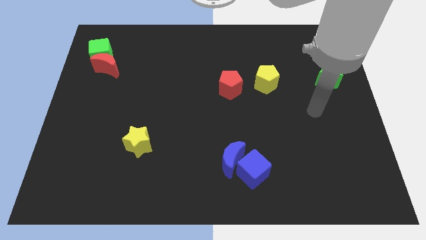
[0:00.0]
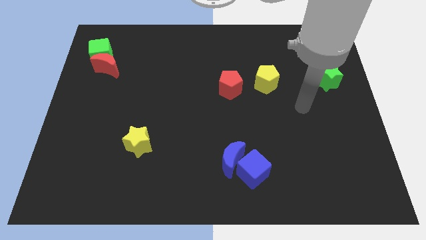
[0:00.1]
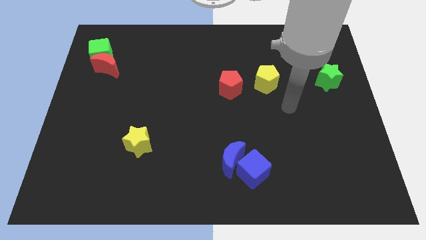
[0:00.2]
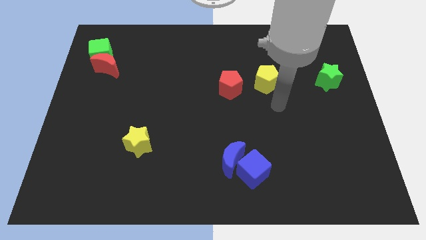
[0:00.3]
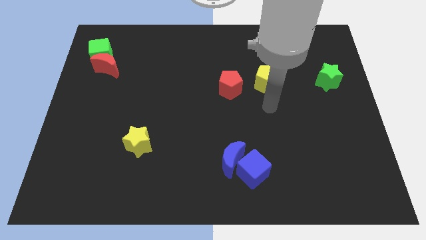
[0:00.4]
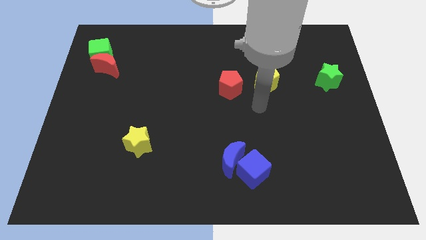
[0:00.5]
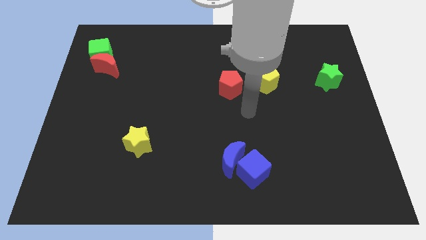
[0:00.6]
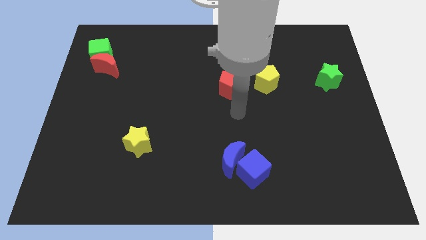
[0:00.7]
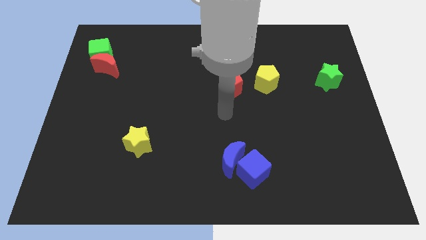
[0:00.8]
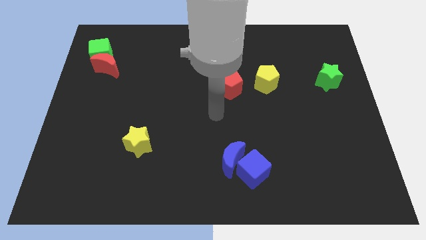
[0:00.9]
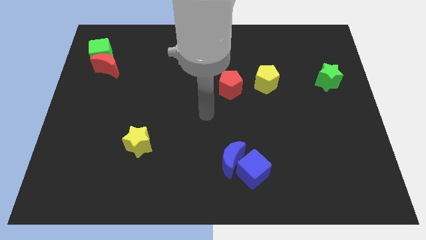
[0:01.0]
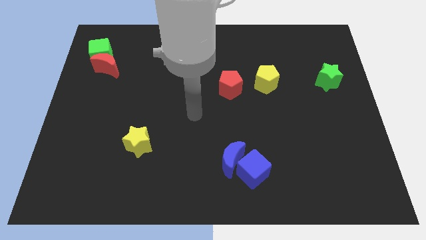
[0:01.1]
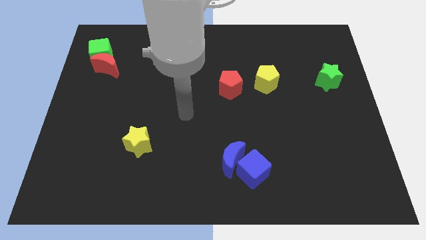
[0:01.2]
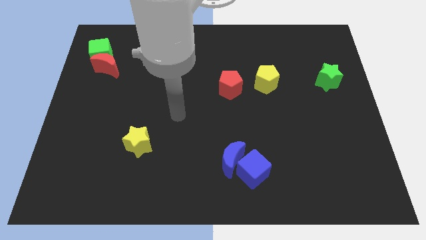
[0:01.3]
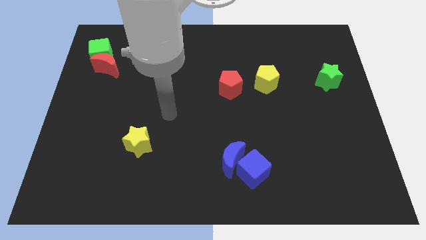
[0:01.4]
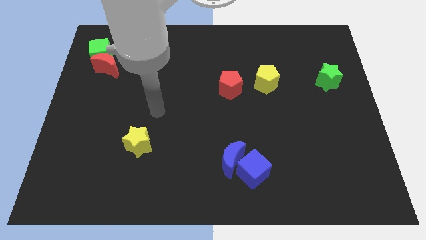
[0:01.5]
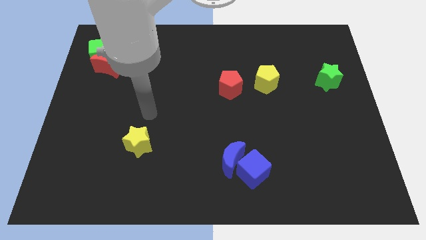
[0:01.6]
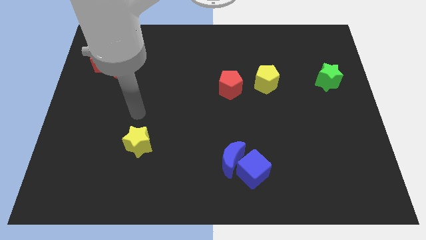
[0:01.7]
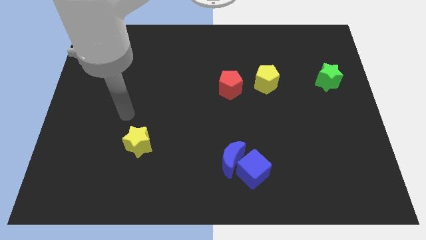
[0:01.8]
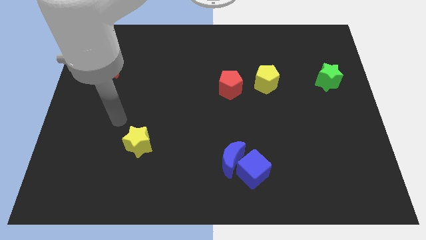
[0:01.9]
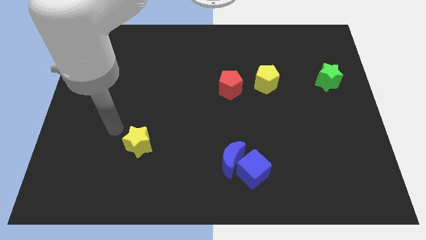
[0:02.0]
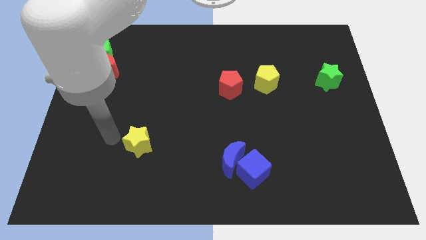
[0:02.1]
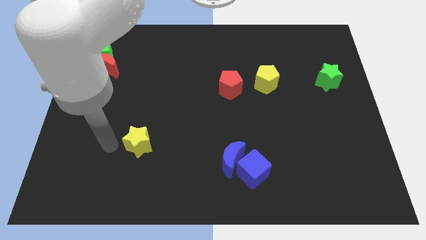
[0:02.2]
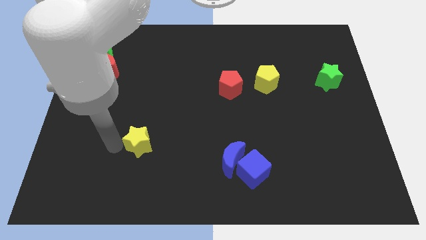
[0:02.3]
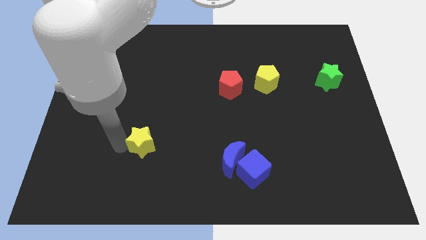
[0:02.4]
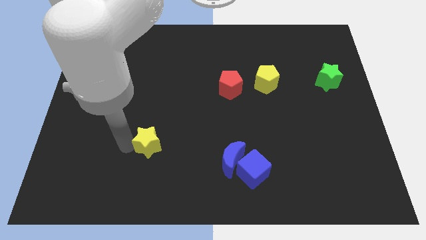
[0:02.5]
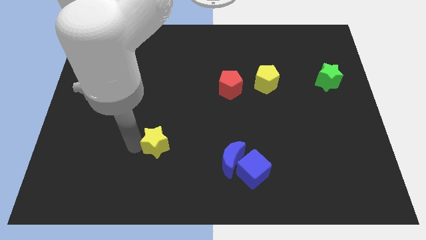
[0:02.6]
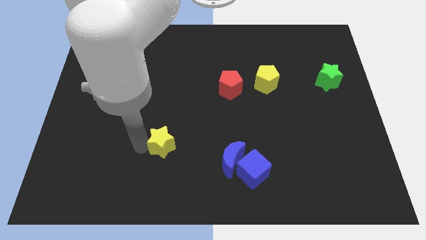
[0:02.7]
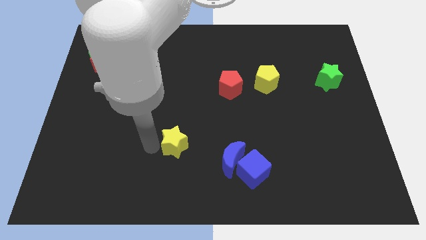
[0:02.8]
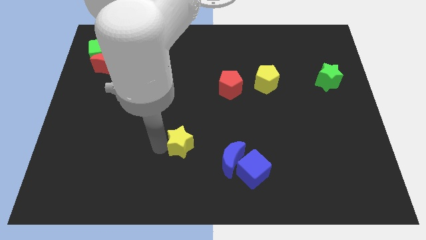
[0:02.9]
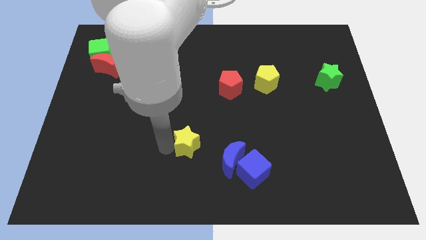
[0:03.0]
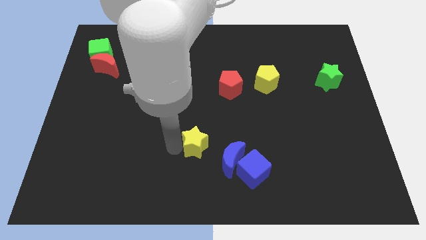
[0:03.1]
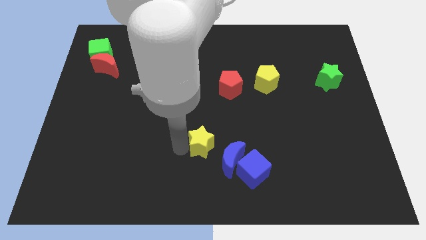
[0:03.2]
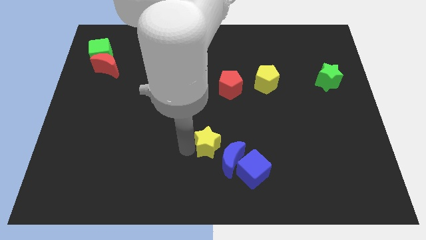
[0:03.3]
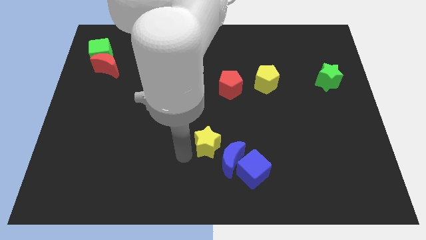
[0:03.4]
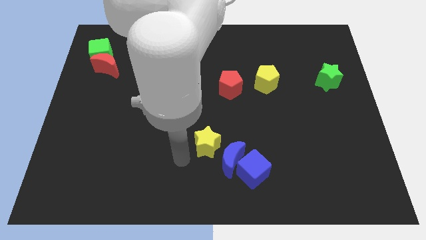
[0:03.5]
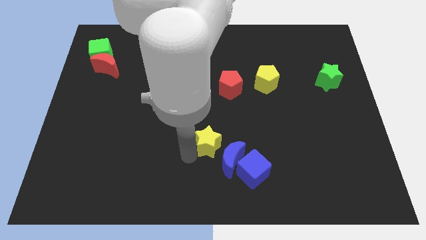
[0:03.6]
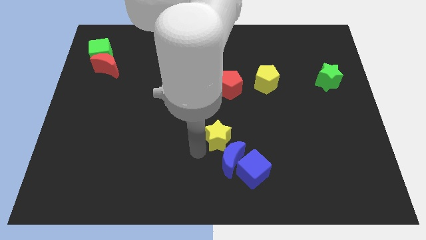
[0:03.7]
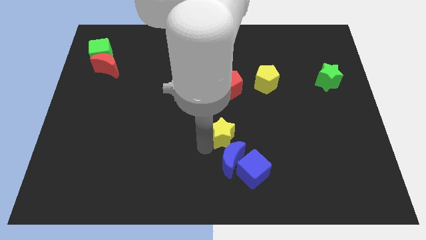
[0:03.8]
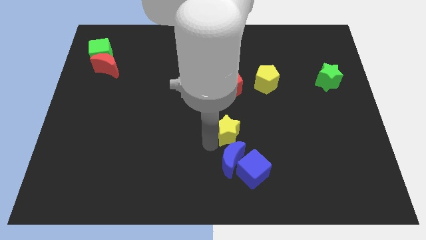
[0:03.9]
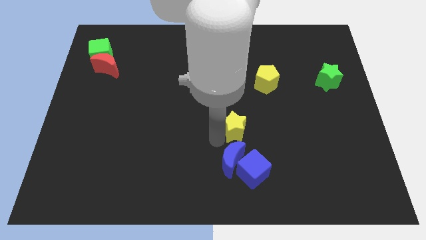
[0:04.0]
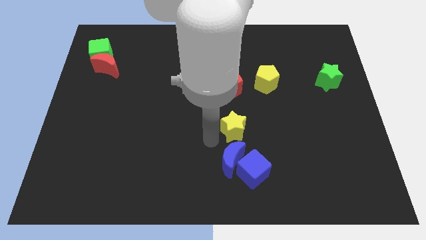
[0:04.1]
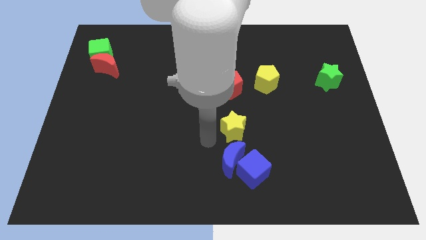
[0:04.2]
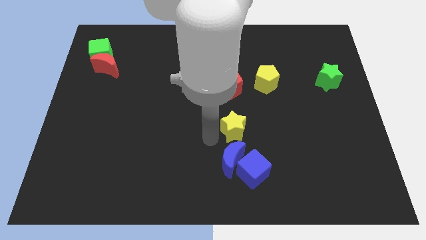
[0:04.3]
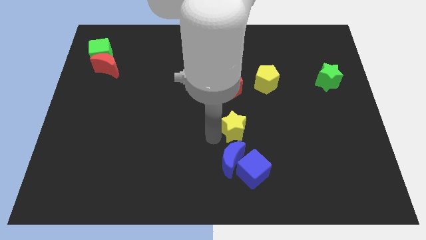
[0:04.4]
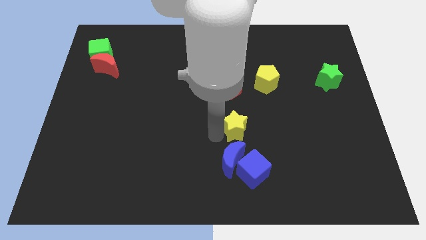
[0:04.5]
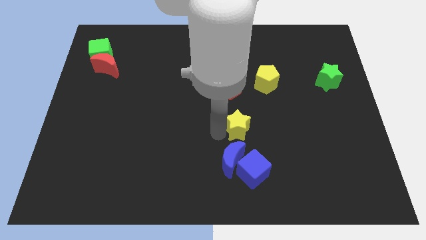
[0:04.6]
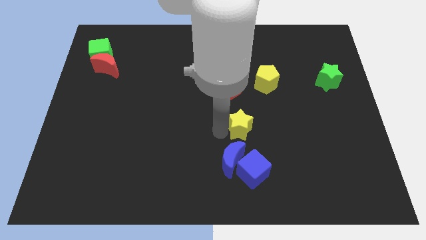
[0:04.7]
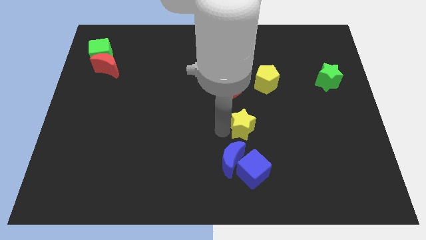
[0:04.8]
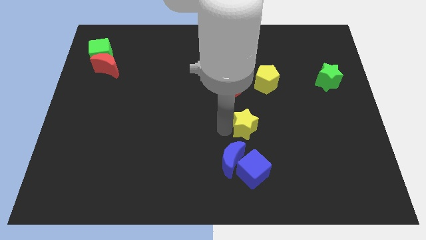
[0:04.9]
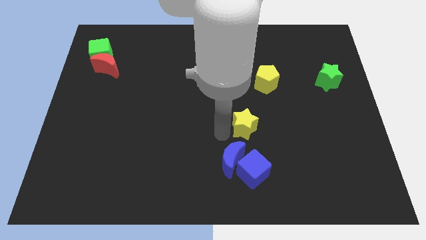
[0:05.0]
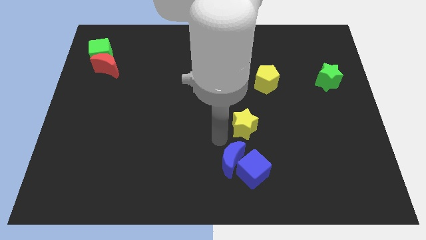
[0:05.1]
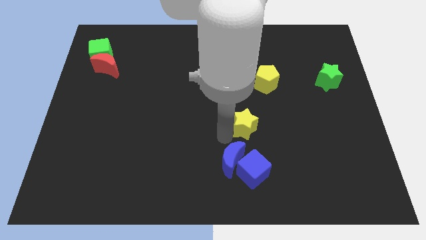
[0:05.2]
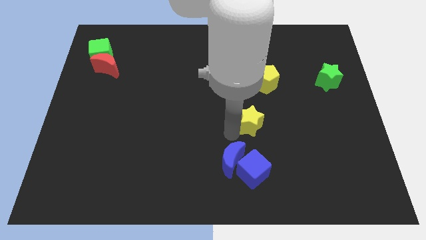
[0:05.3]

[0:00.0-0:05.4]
move the yellow star to the bottom side of the yellow pentagon

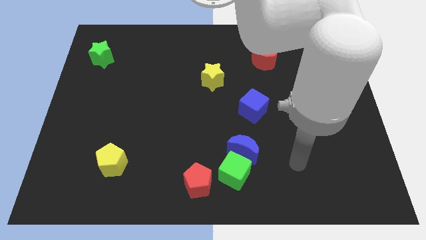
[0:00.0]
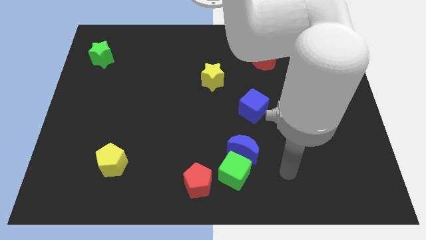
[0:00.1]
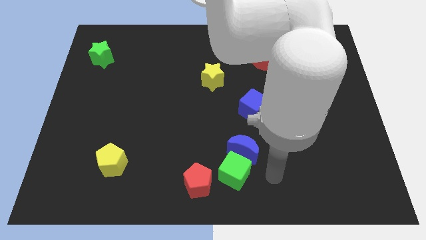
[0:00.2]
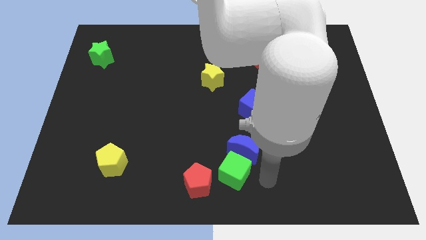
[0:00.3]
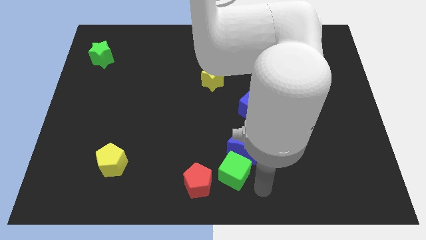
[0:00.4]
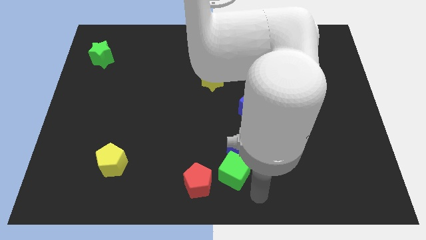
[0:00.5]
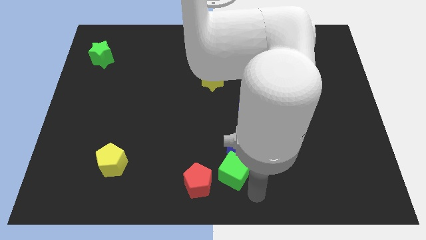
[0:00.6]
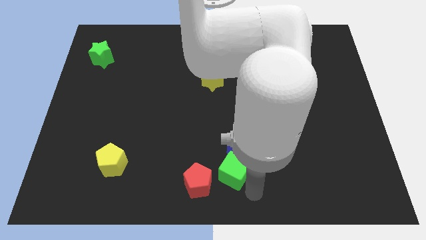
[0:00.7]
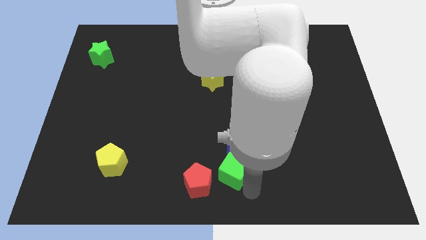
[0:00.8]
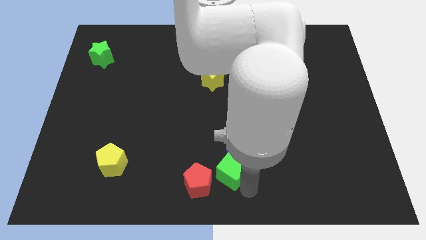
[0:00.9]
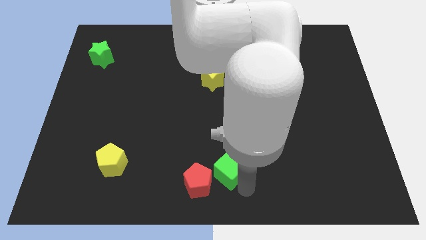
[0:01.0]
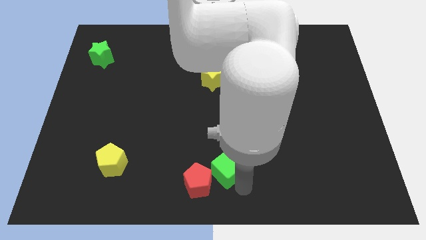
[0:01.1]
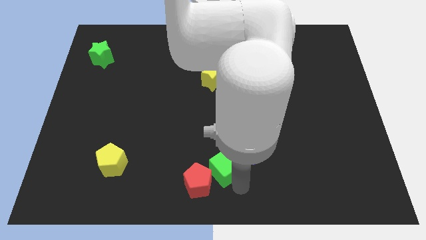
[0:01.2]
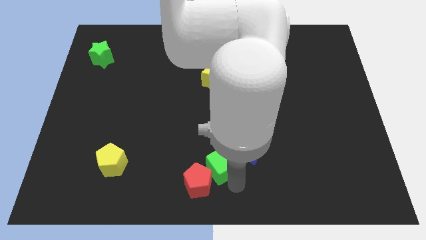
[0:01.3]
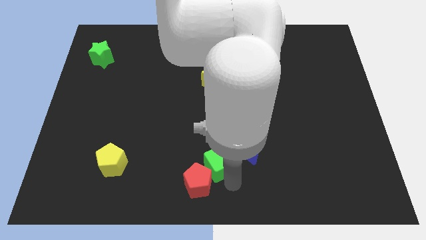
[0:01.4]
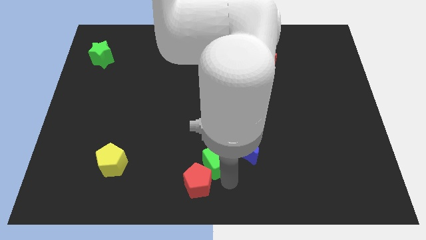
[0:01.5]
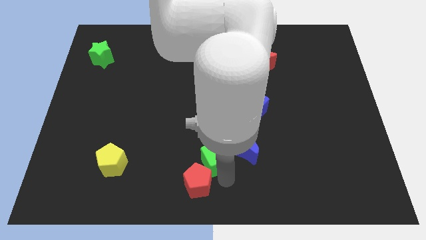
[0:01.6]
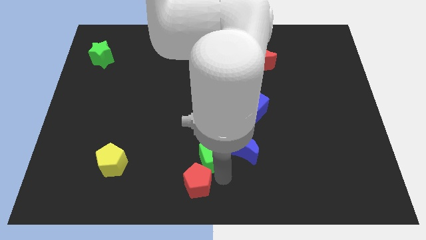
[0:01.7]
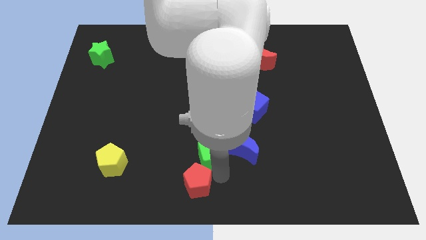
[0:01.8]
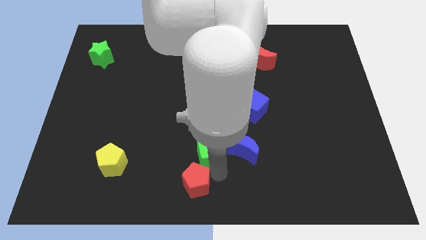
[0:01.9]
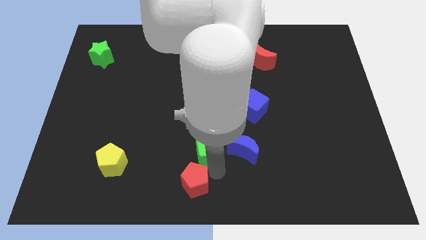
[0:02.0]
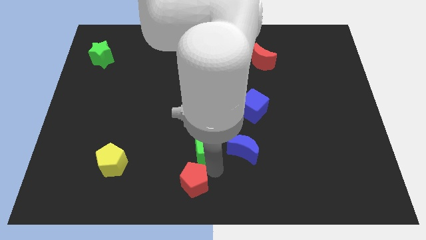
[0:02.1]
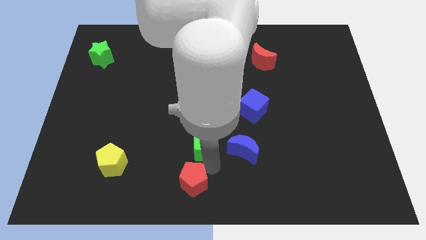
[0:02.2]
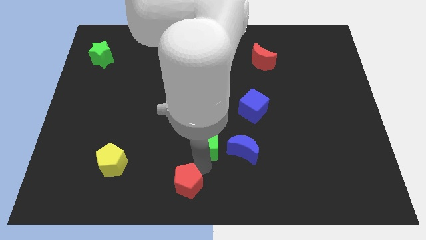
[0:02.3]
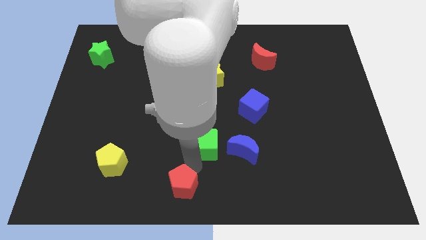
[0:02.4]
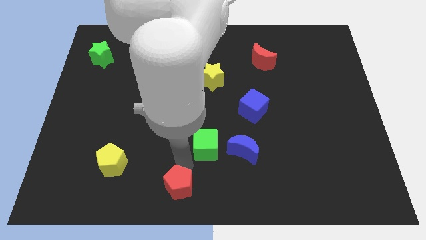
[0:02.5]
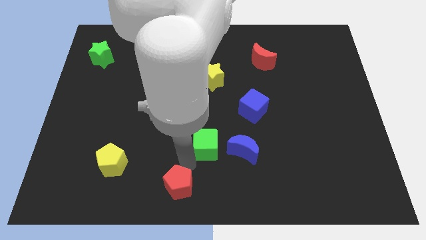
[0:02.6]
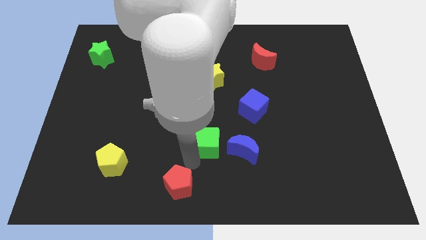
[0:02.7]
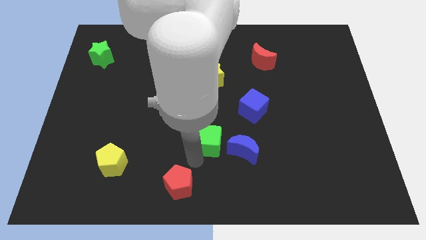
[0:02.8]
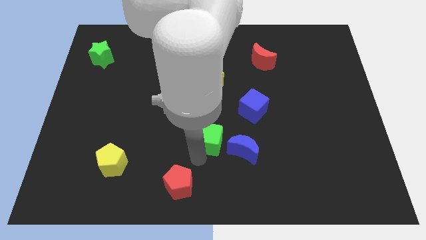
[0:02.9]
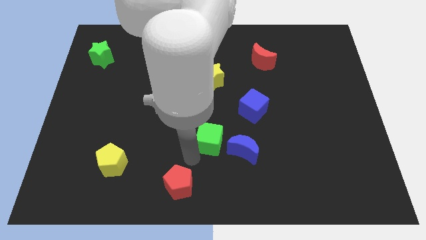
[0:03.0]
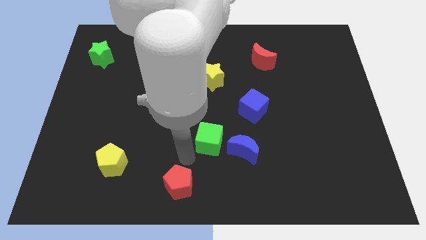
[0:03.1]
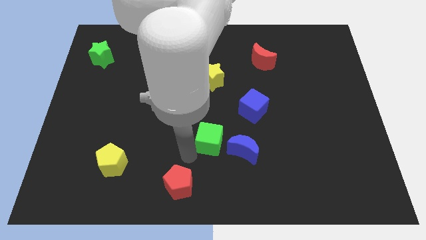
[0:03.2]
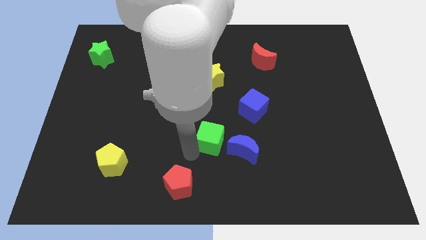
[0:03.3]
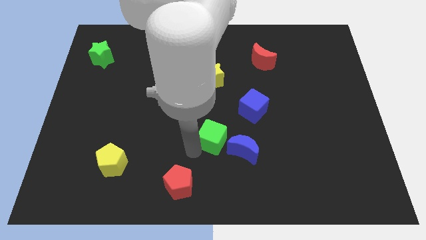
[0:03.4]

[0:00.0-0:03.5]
slide the green cube diagonally down and to the left of the blue cube
